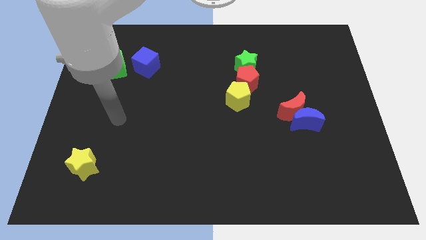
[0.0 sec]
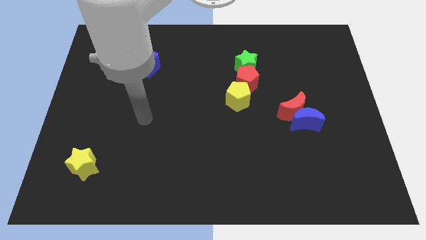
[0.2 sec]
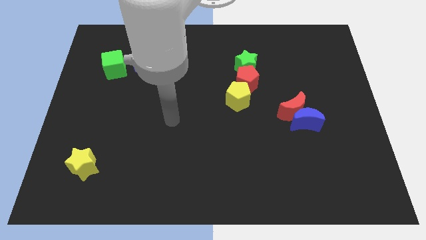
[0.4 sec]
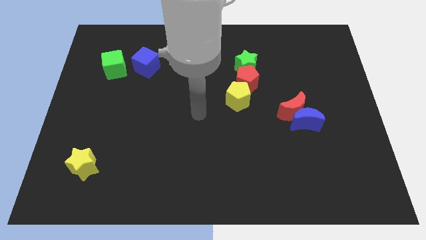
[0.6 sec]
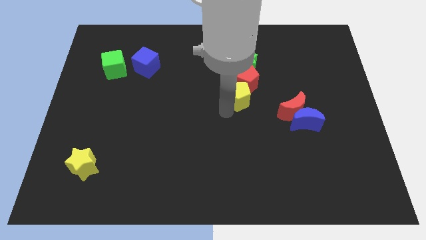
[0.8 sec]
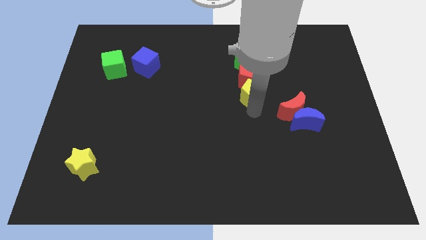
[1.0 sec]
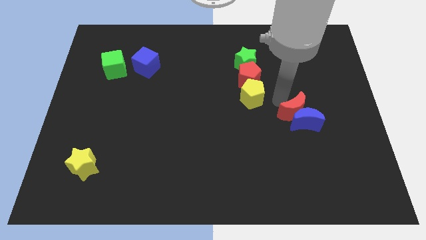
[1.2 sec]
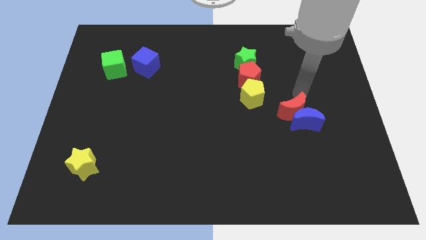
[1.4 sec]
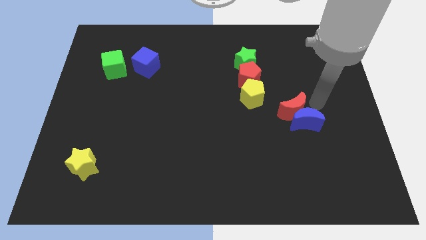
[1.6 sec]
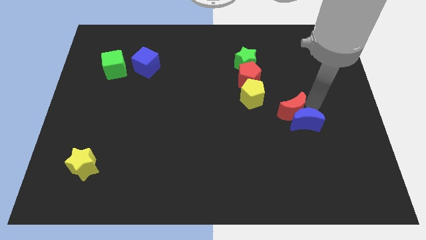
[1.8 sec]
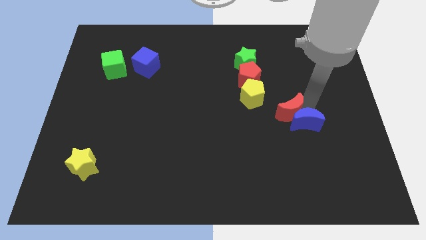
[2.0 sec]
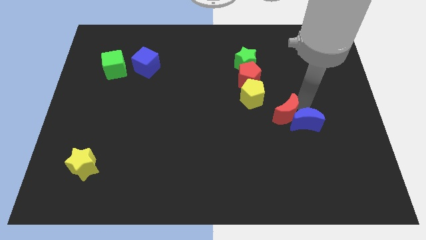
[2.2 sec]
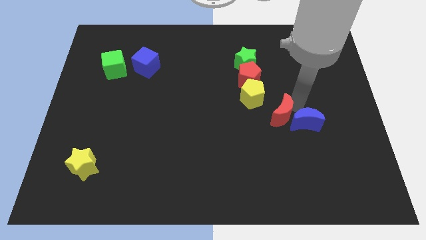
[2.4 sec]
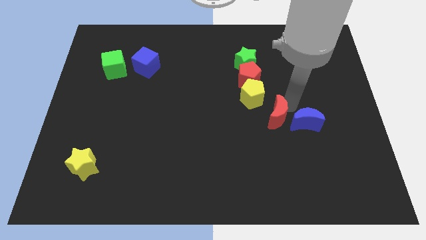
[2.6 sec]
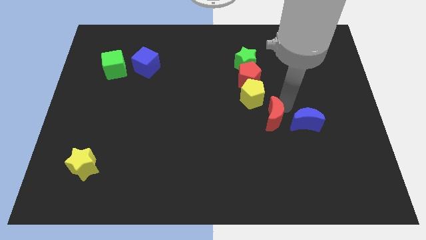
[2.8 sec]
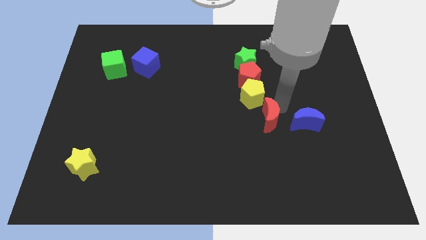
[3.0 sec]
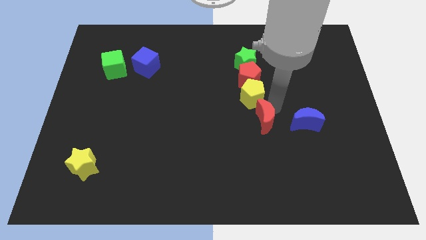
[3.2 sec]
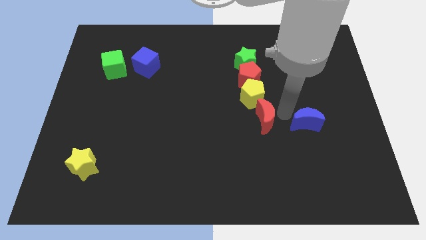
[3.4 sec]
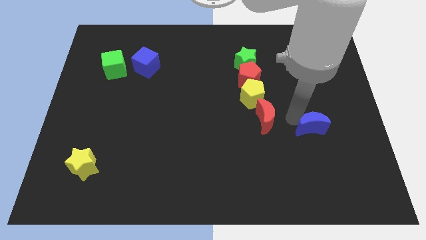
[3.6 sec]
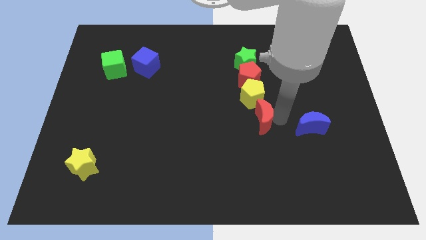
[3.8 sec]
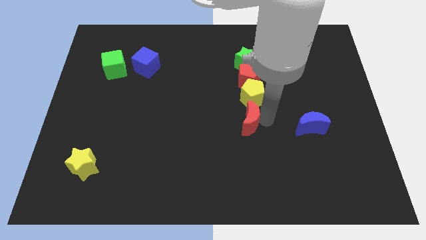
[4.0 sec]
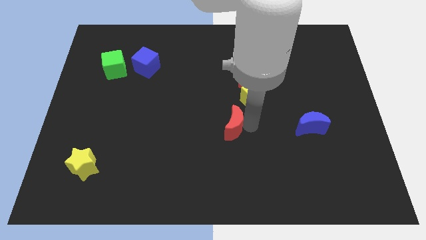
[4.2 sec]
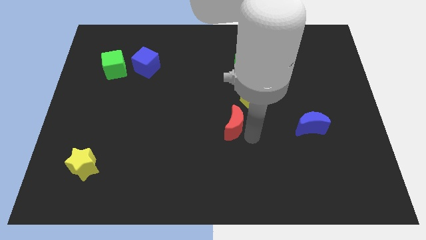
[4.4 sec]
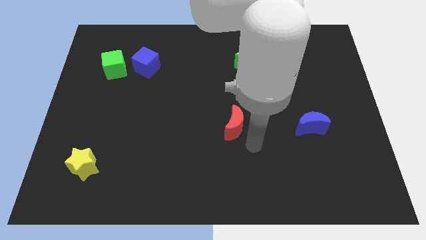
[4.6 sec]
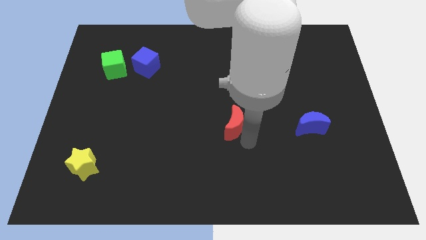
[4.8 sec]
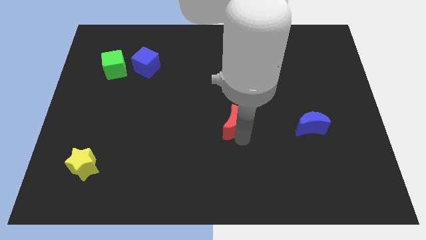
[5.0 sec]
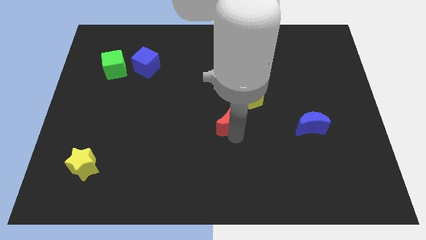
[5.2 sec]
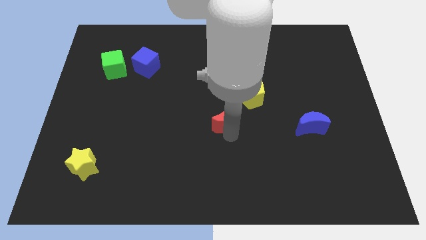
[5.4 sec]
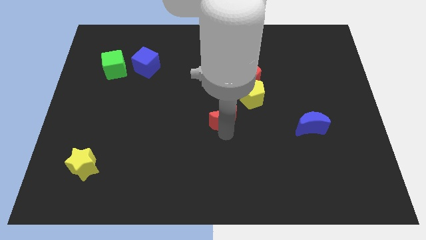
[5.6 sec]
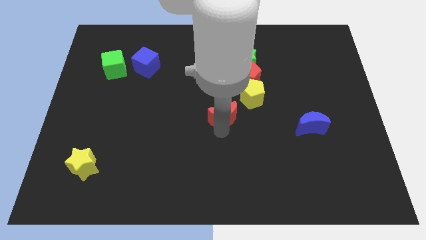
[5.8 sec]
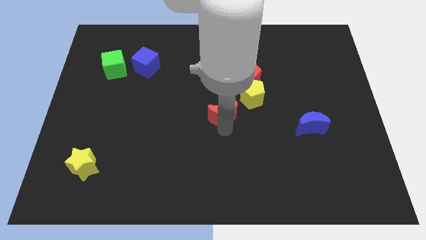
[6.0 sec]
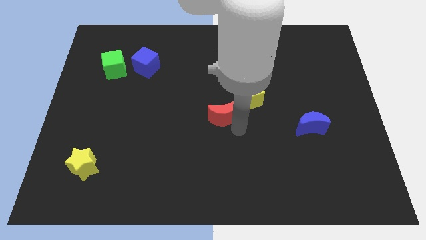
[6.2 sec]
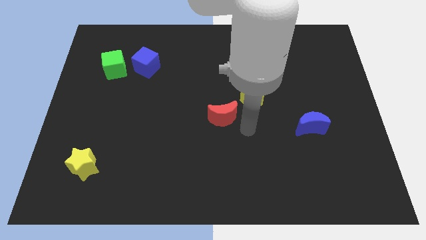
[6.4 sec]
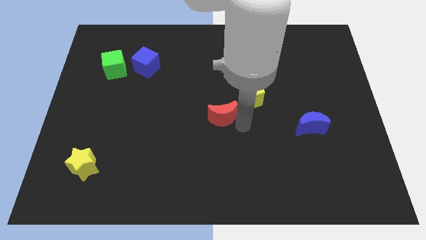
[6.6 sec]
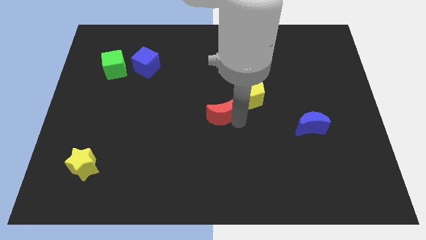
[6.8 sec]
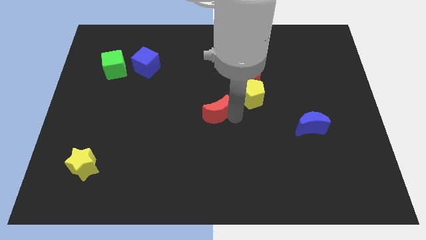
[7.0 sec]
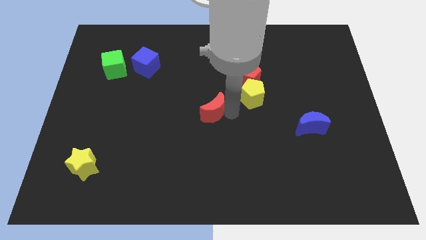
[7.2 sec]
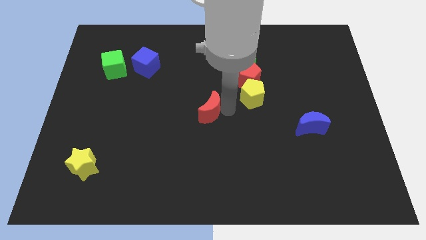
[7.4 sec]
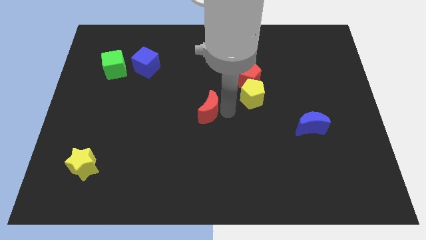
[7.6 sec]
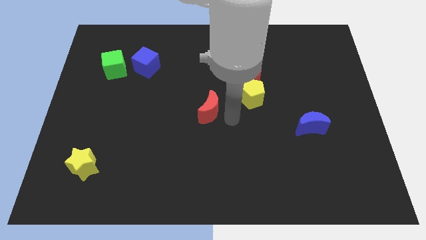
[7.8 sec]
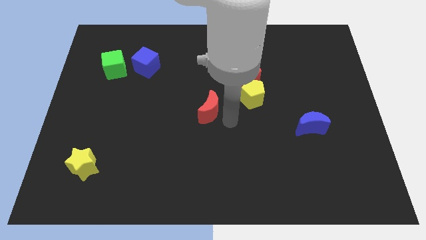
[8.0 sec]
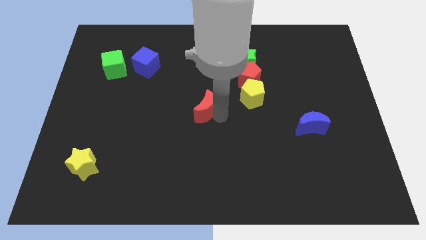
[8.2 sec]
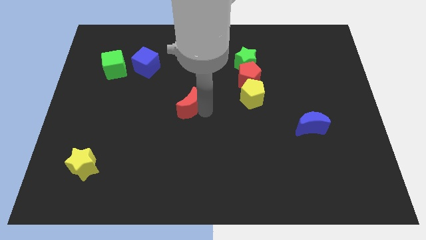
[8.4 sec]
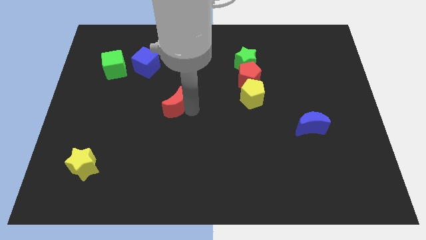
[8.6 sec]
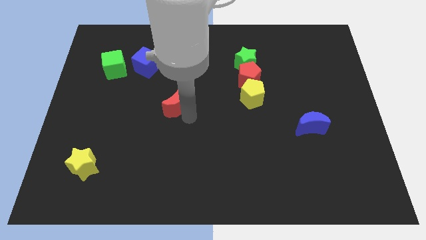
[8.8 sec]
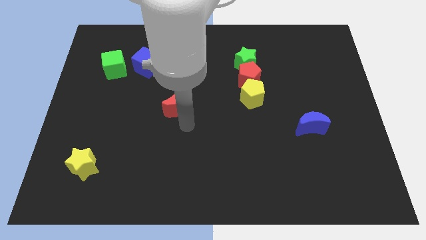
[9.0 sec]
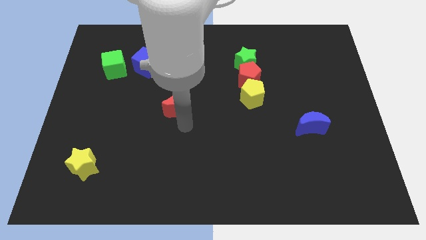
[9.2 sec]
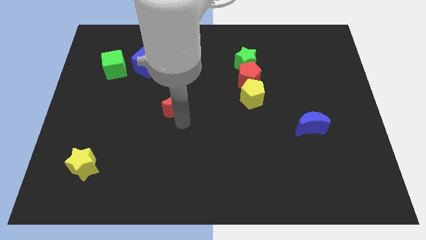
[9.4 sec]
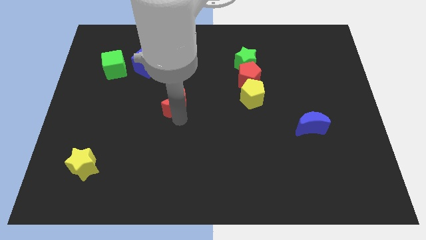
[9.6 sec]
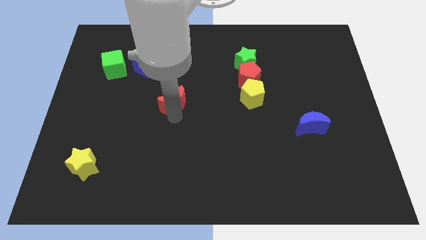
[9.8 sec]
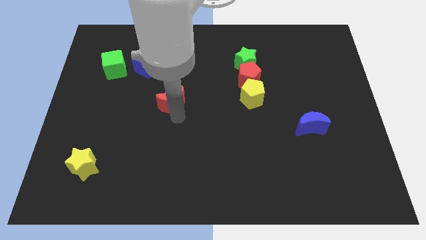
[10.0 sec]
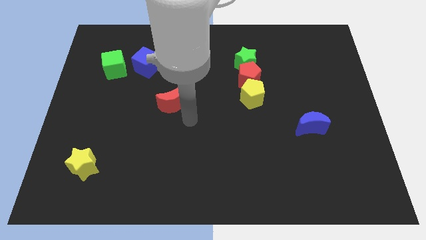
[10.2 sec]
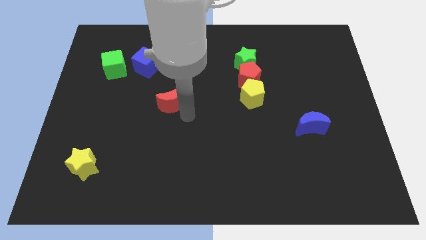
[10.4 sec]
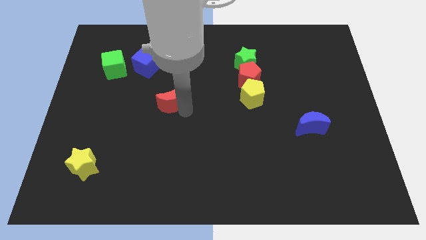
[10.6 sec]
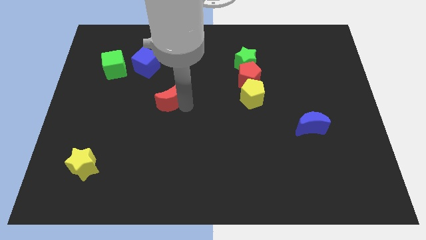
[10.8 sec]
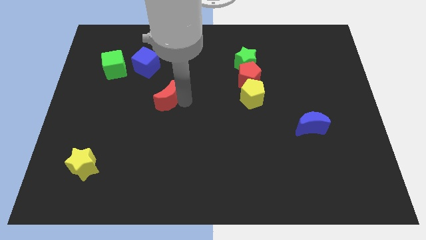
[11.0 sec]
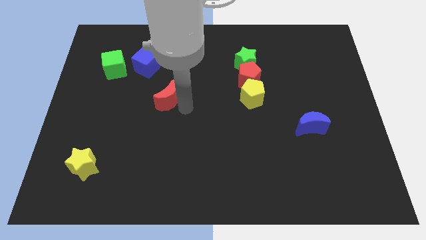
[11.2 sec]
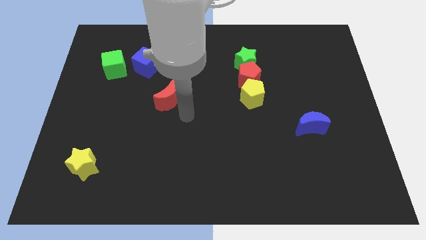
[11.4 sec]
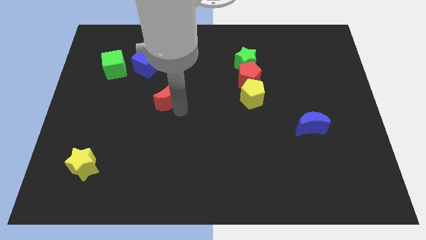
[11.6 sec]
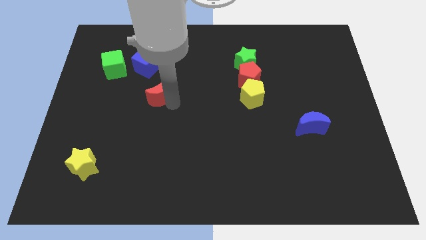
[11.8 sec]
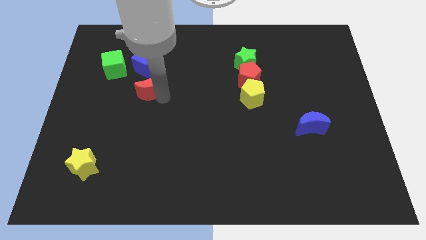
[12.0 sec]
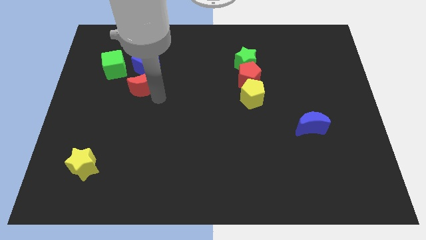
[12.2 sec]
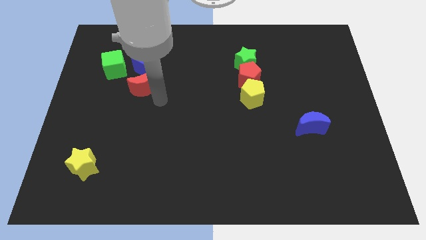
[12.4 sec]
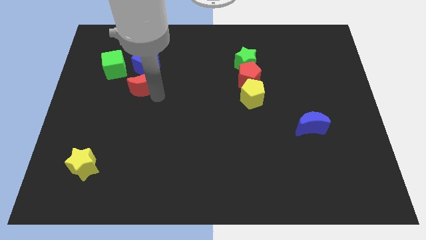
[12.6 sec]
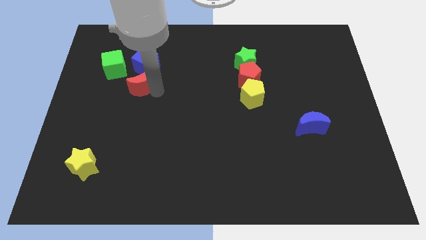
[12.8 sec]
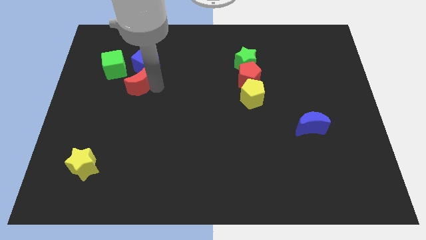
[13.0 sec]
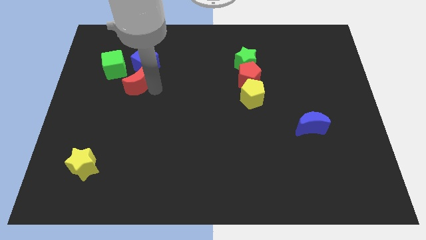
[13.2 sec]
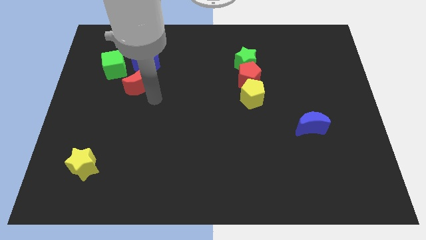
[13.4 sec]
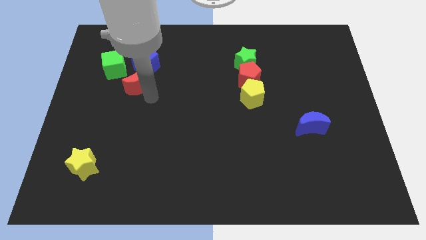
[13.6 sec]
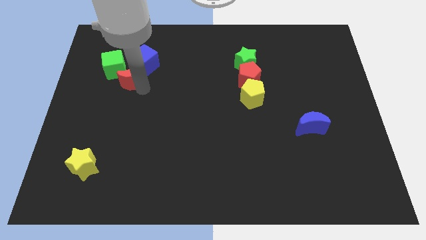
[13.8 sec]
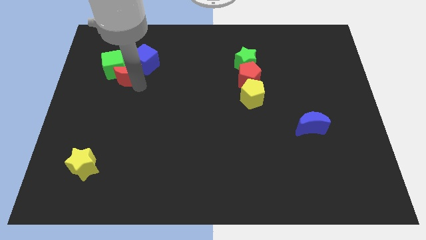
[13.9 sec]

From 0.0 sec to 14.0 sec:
put the red moon next to the green cube
